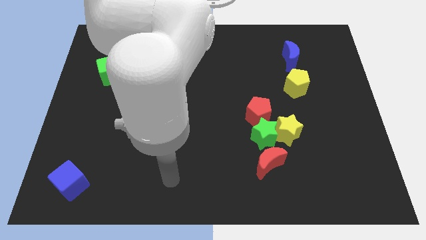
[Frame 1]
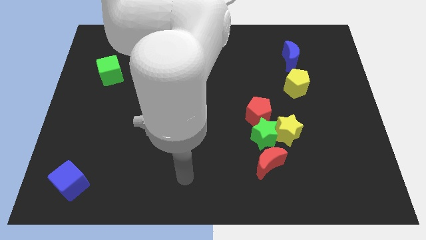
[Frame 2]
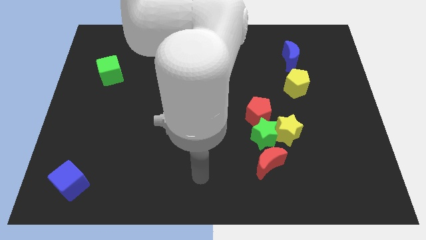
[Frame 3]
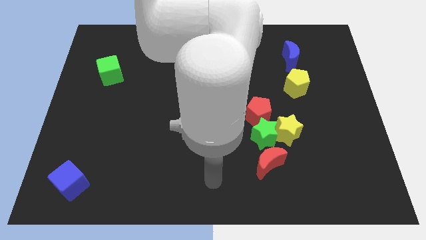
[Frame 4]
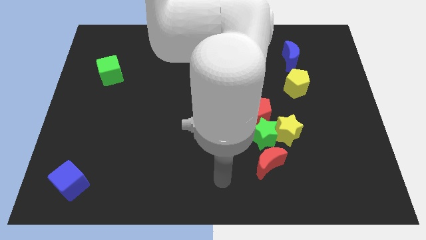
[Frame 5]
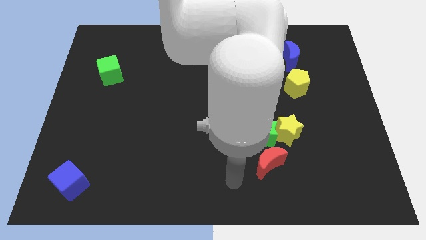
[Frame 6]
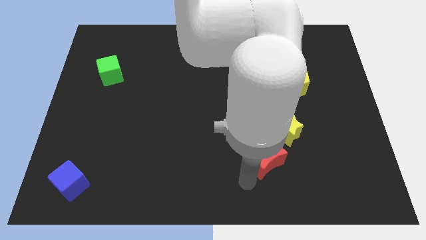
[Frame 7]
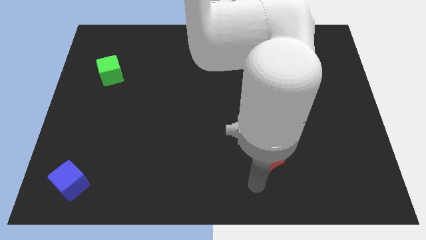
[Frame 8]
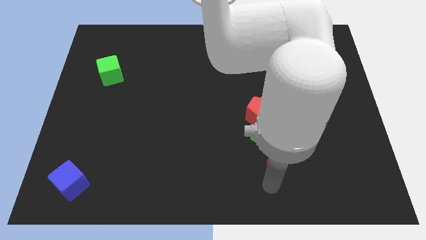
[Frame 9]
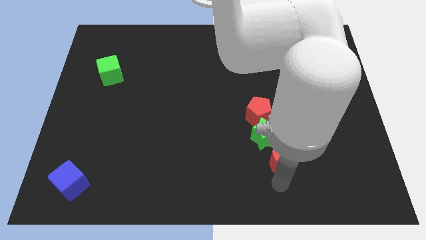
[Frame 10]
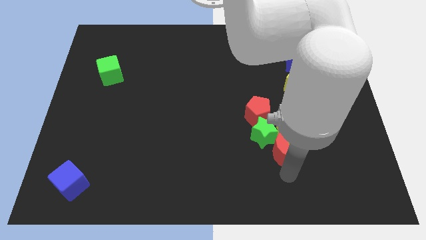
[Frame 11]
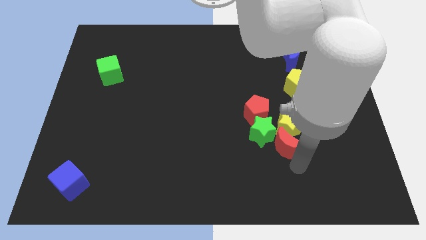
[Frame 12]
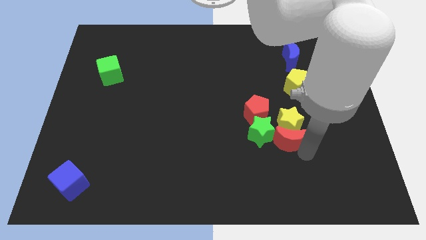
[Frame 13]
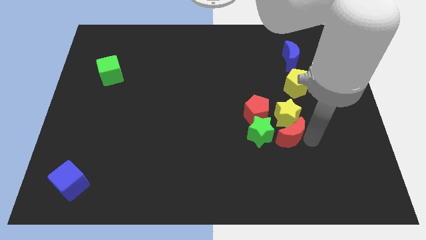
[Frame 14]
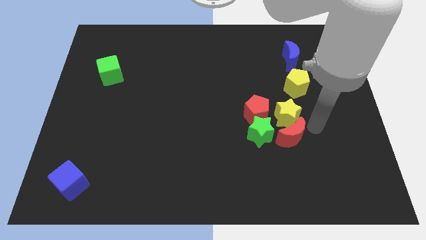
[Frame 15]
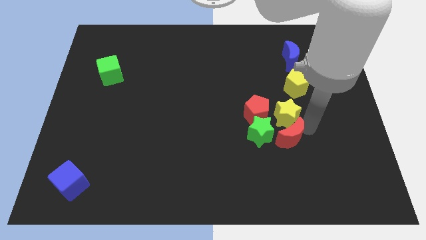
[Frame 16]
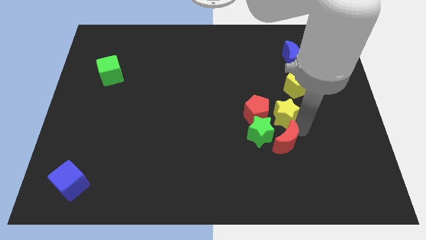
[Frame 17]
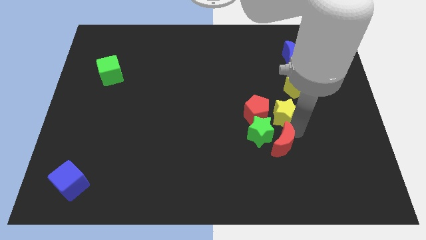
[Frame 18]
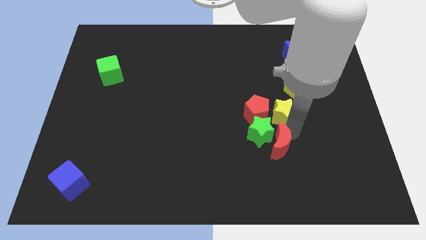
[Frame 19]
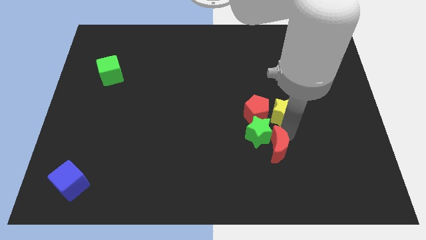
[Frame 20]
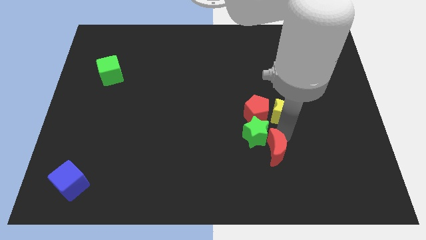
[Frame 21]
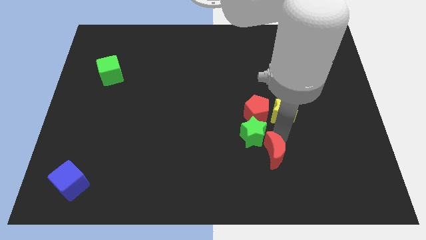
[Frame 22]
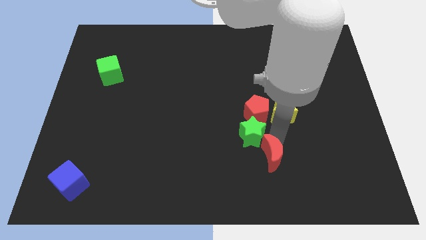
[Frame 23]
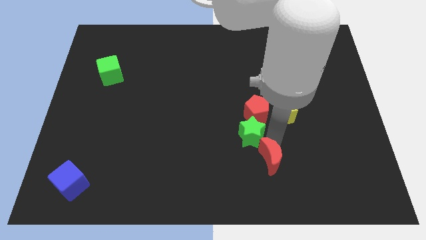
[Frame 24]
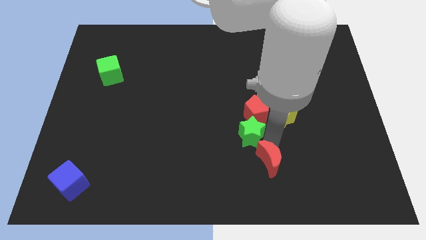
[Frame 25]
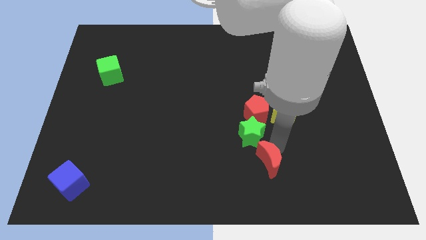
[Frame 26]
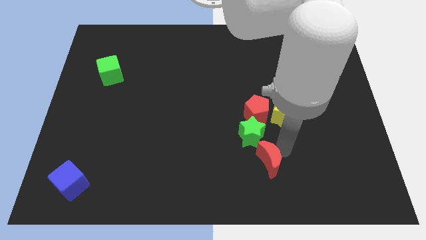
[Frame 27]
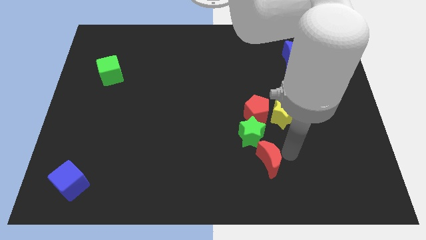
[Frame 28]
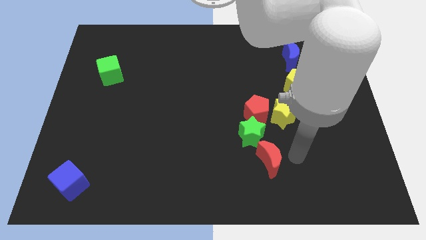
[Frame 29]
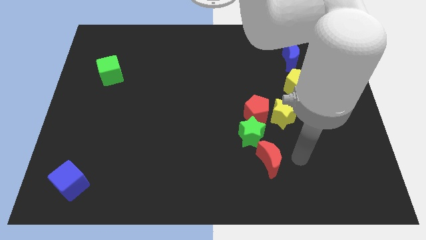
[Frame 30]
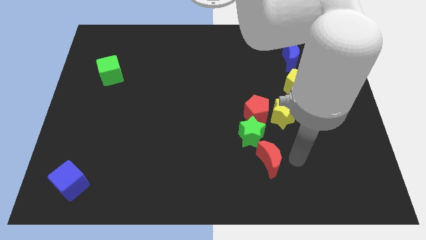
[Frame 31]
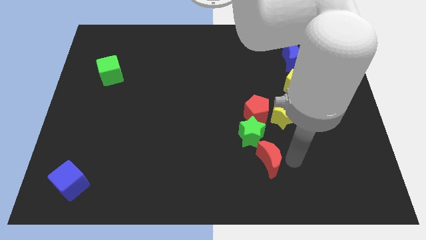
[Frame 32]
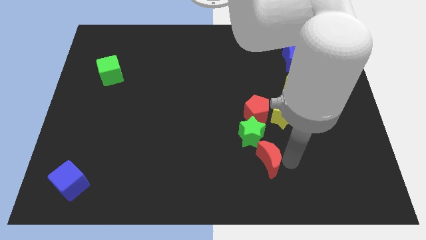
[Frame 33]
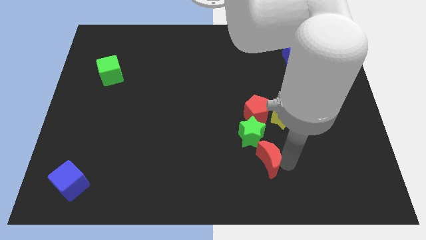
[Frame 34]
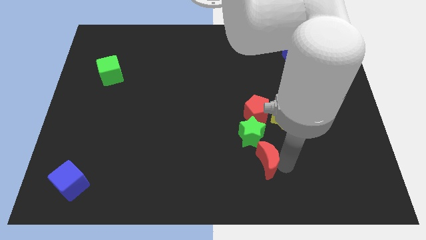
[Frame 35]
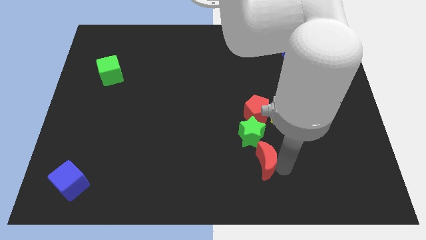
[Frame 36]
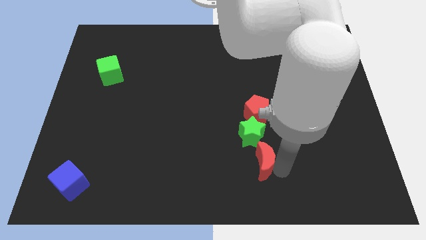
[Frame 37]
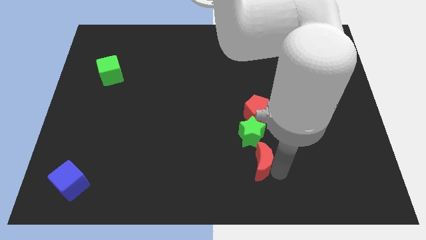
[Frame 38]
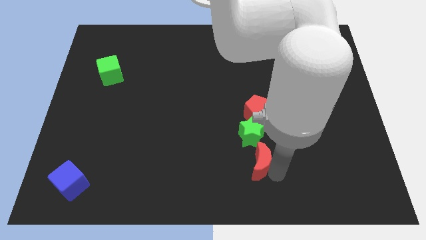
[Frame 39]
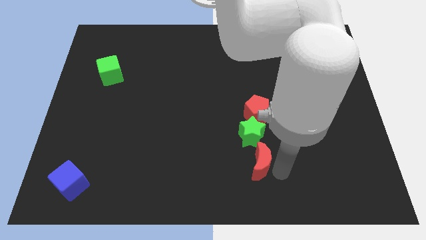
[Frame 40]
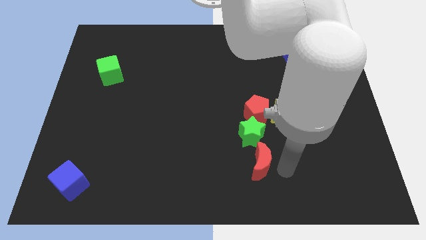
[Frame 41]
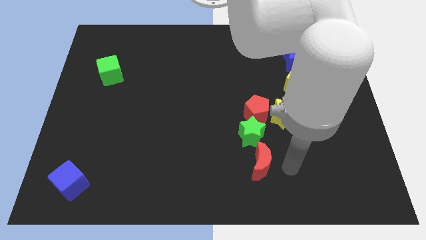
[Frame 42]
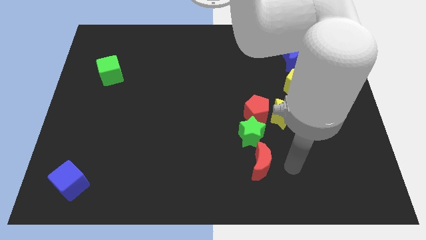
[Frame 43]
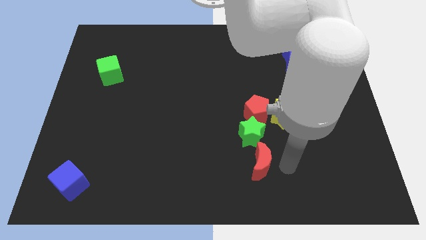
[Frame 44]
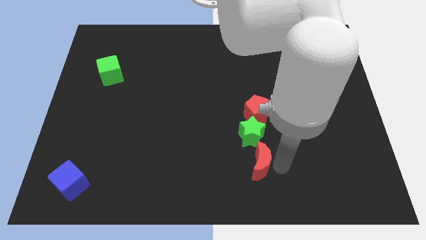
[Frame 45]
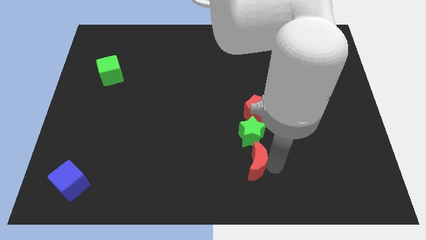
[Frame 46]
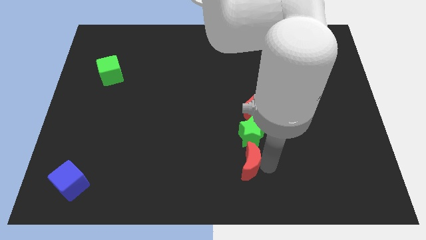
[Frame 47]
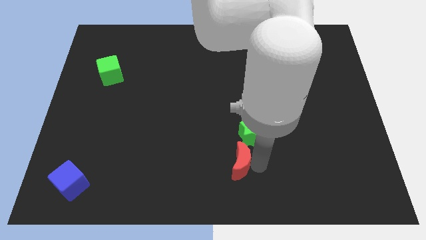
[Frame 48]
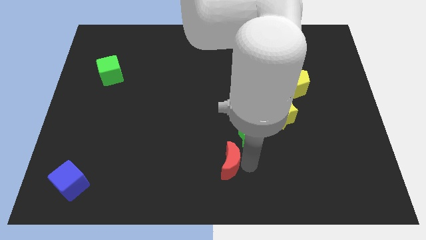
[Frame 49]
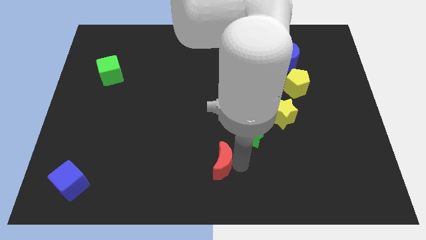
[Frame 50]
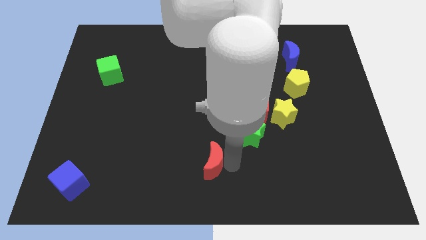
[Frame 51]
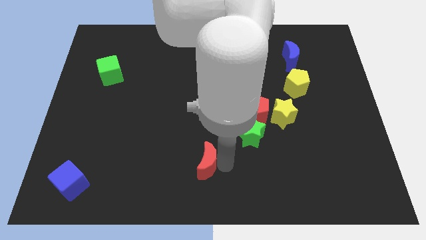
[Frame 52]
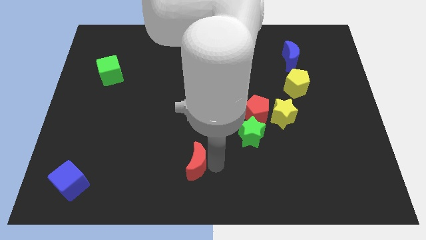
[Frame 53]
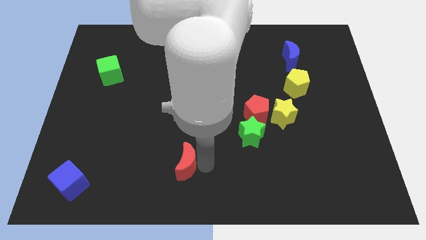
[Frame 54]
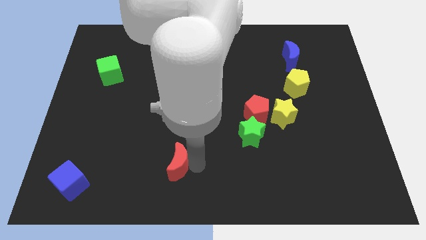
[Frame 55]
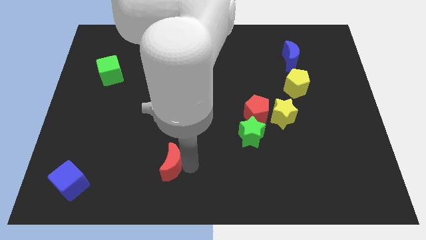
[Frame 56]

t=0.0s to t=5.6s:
slide the red moon to the left

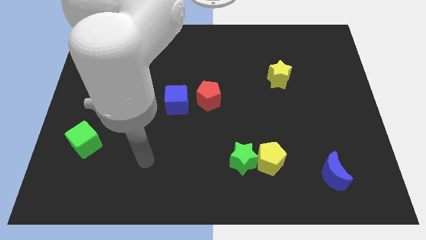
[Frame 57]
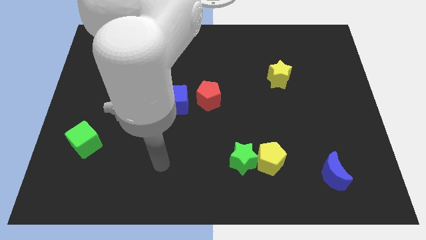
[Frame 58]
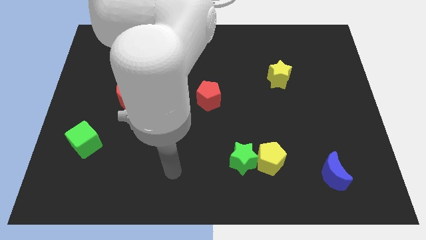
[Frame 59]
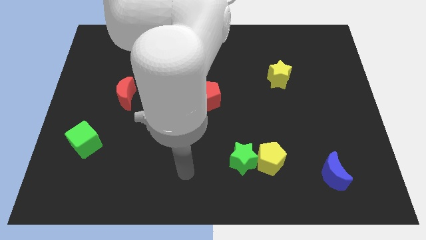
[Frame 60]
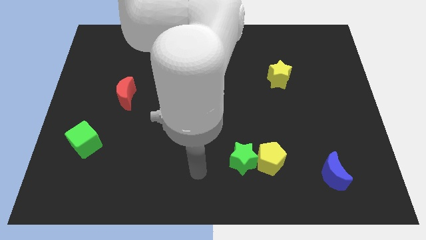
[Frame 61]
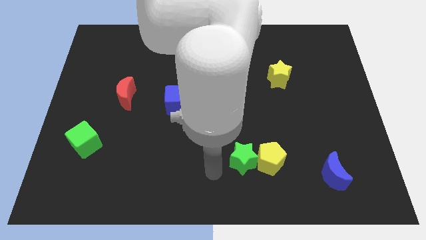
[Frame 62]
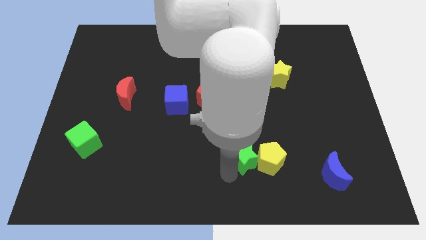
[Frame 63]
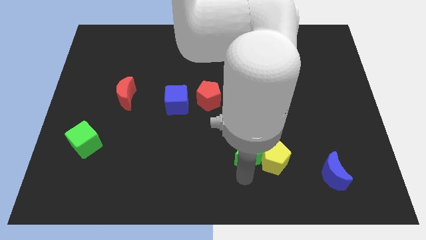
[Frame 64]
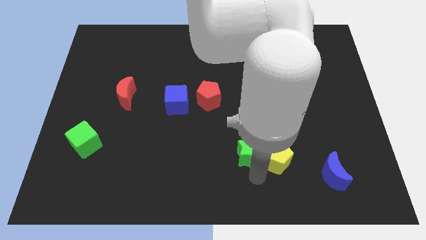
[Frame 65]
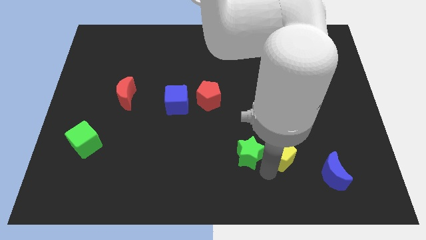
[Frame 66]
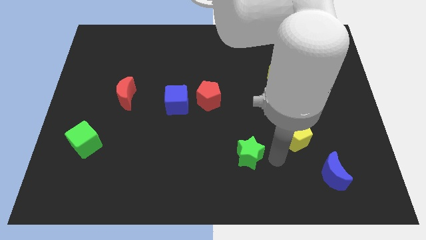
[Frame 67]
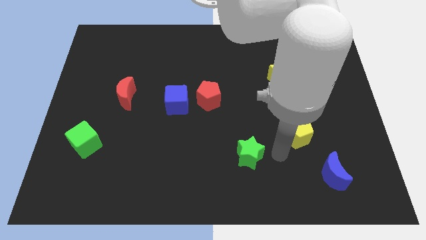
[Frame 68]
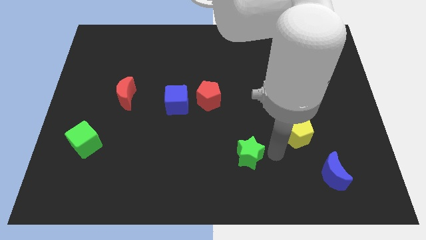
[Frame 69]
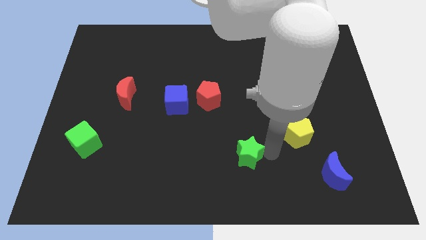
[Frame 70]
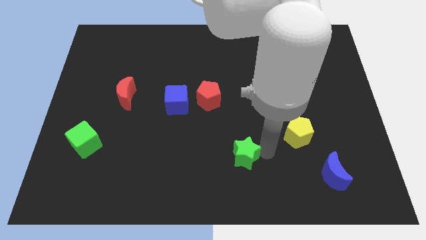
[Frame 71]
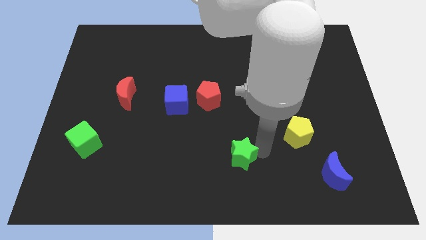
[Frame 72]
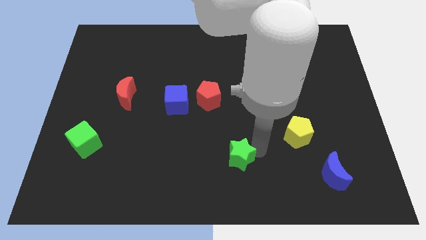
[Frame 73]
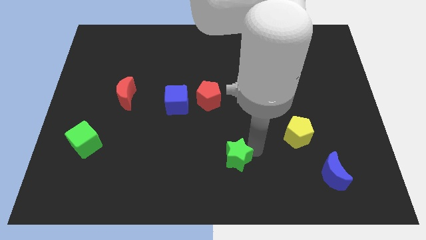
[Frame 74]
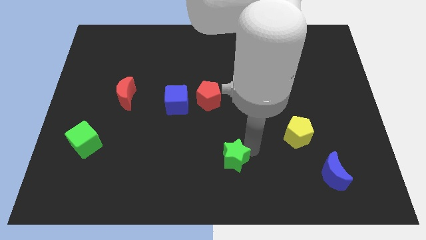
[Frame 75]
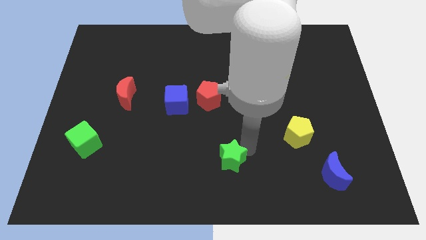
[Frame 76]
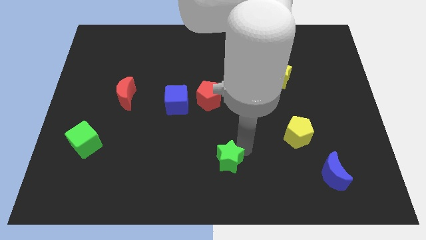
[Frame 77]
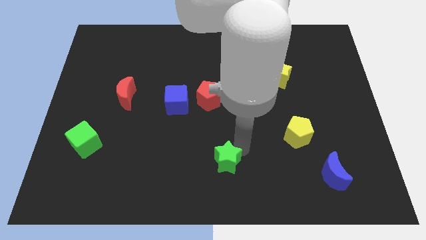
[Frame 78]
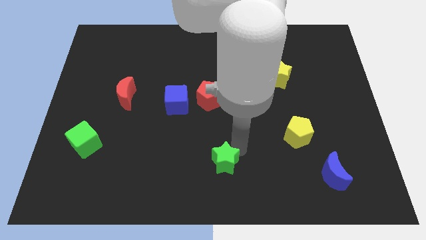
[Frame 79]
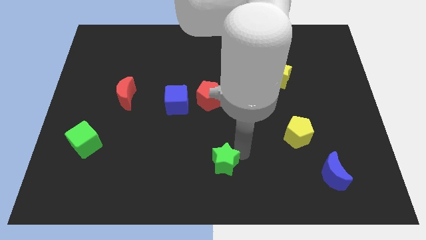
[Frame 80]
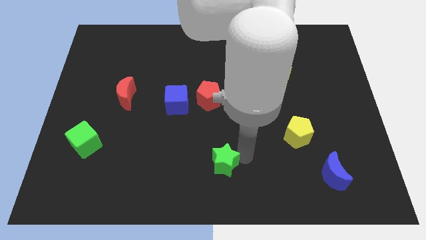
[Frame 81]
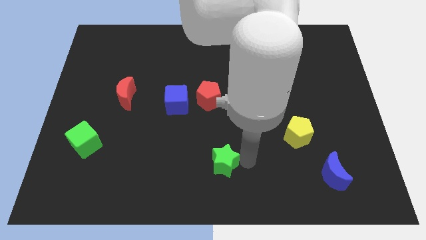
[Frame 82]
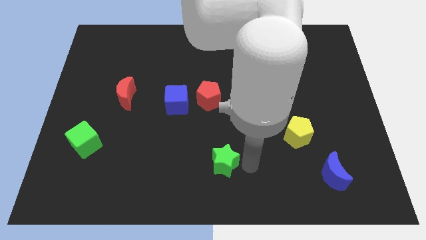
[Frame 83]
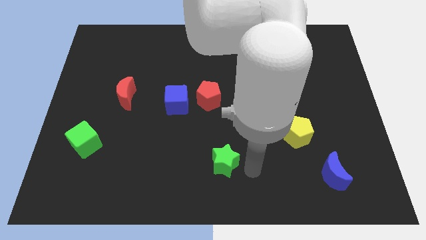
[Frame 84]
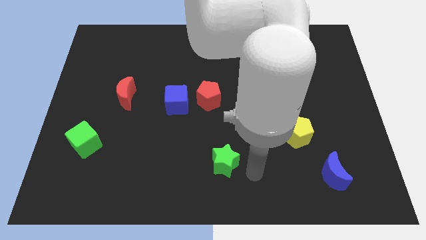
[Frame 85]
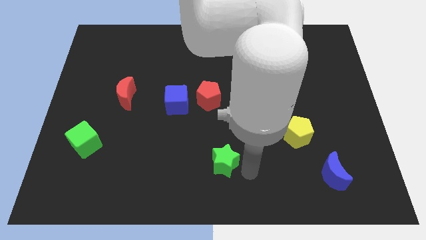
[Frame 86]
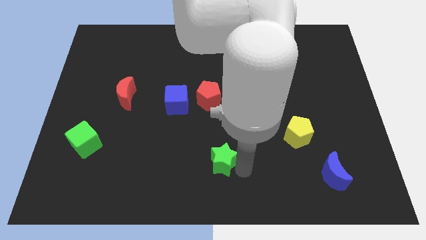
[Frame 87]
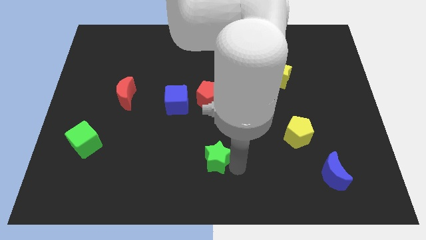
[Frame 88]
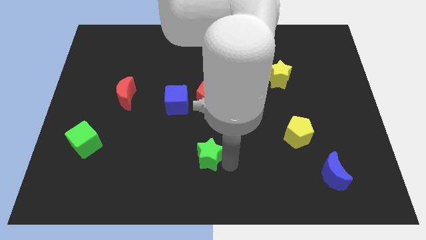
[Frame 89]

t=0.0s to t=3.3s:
slightly slide the green star left
